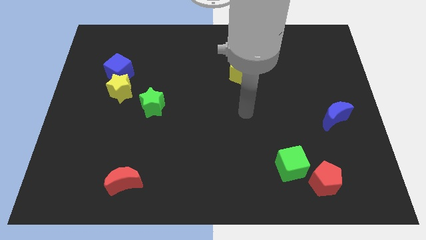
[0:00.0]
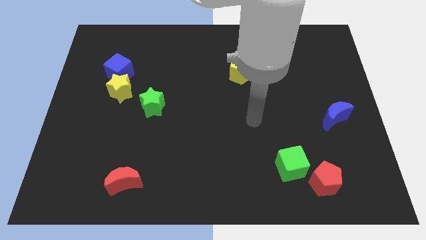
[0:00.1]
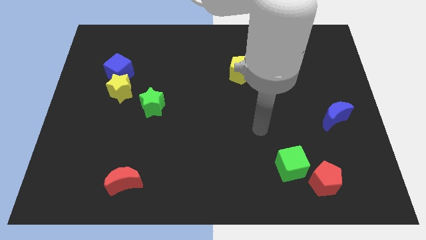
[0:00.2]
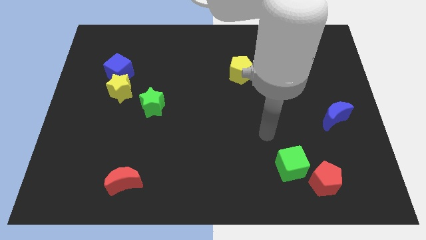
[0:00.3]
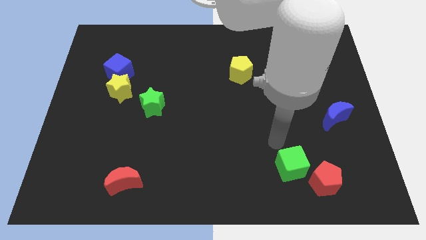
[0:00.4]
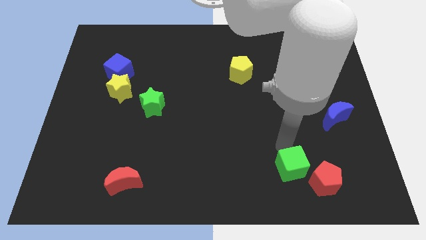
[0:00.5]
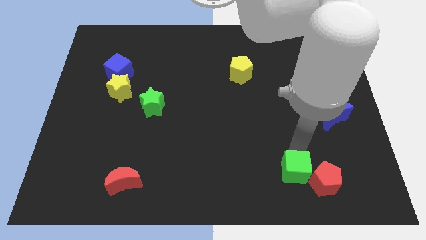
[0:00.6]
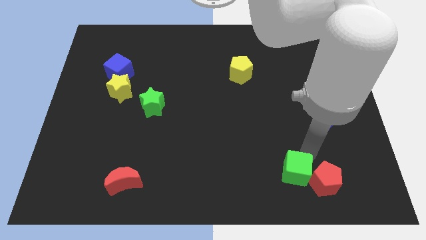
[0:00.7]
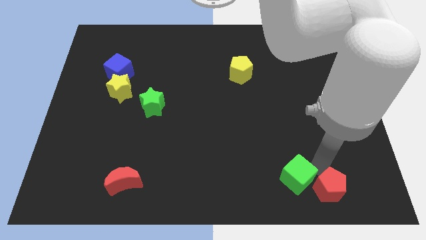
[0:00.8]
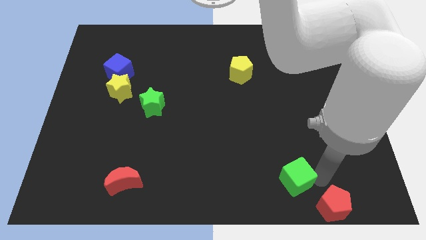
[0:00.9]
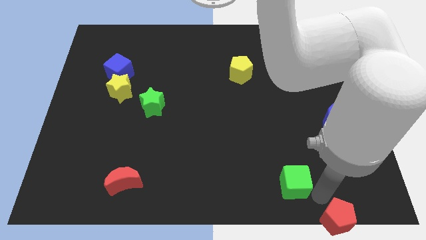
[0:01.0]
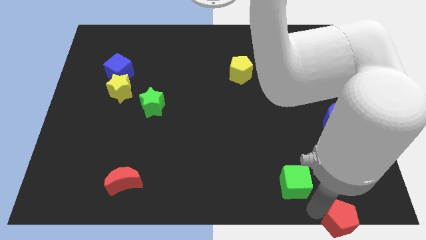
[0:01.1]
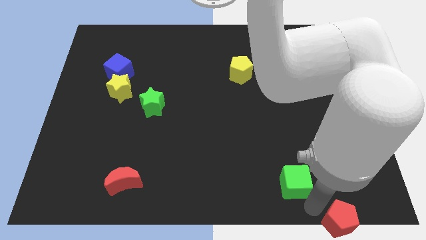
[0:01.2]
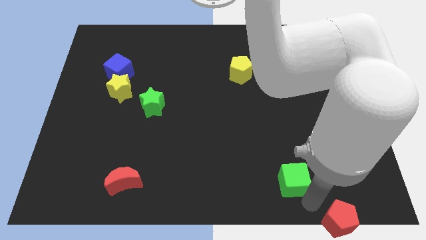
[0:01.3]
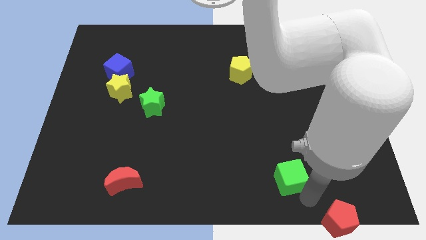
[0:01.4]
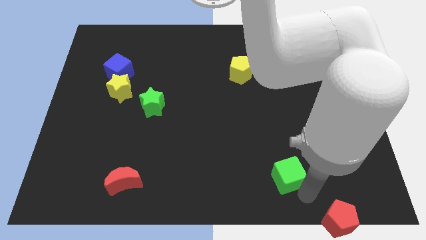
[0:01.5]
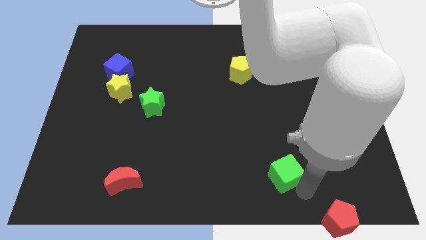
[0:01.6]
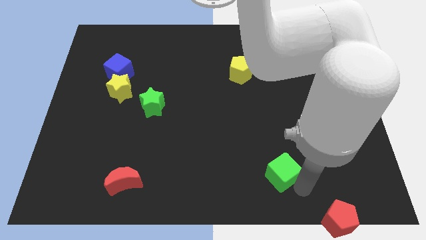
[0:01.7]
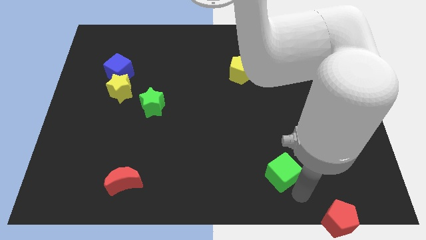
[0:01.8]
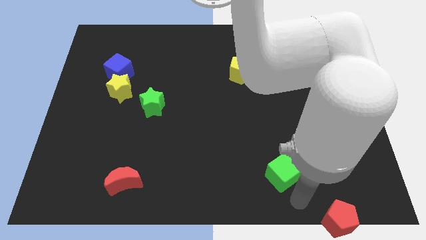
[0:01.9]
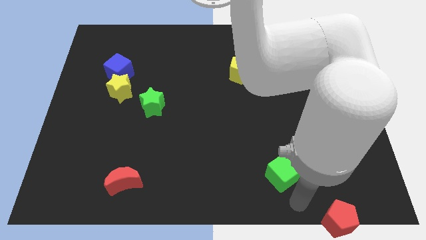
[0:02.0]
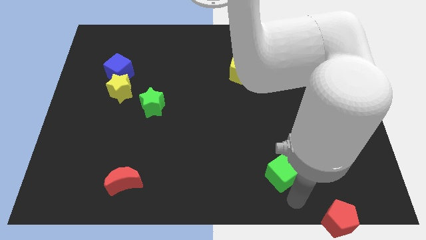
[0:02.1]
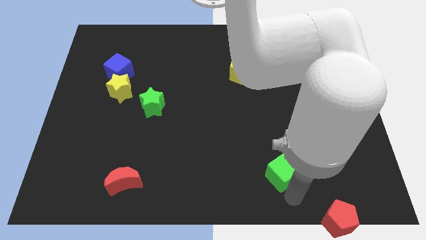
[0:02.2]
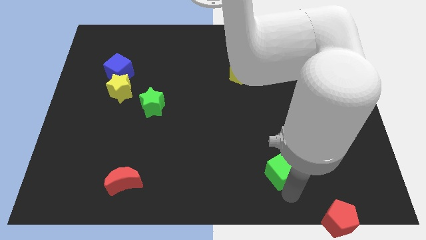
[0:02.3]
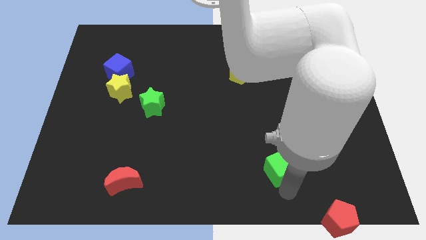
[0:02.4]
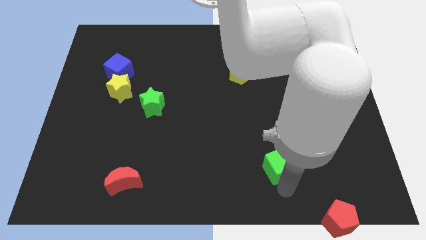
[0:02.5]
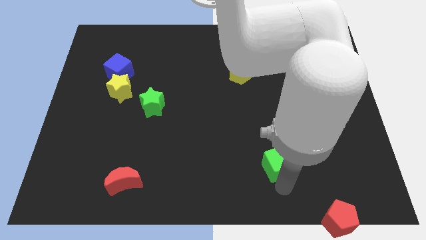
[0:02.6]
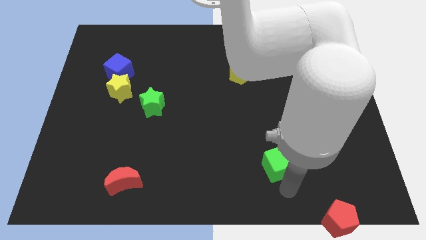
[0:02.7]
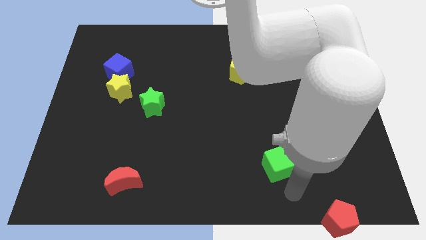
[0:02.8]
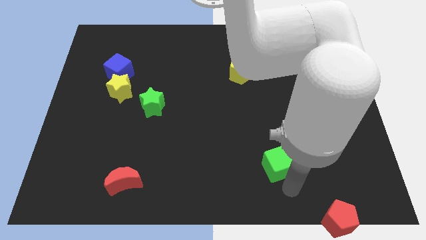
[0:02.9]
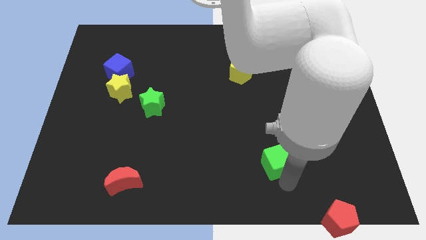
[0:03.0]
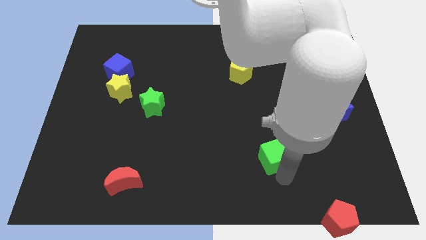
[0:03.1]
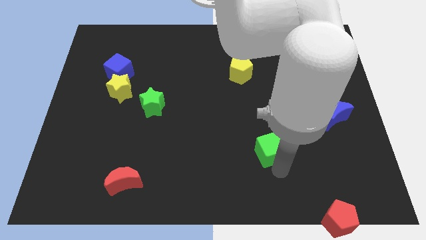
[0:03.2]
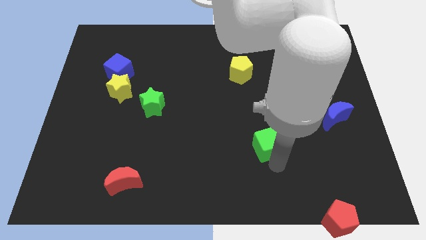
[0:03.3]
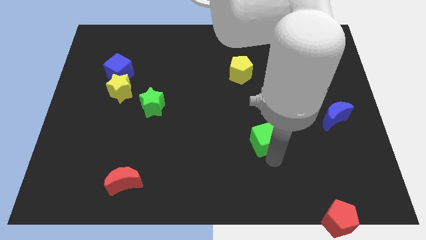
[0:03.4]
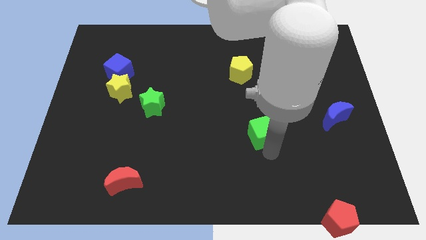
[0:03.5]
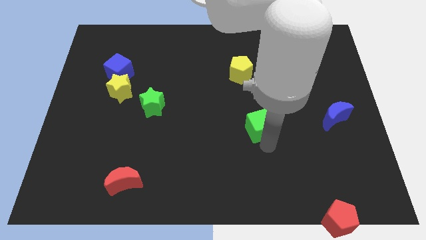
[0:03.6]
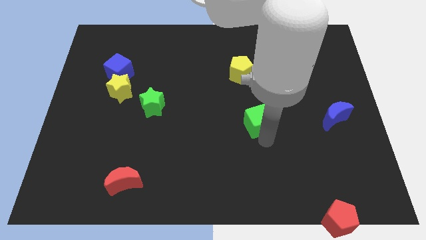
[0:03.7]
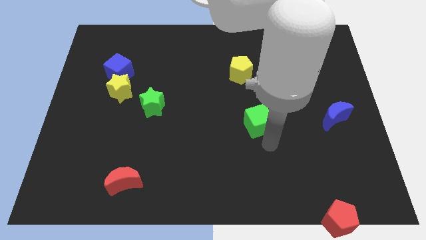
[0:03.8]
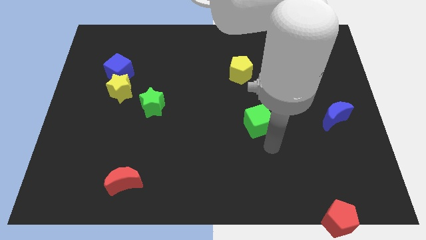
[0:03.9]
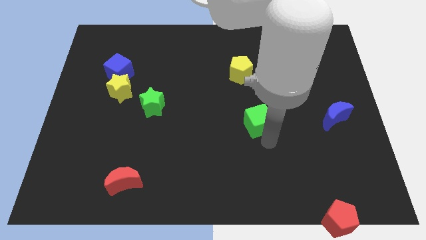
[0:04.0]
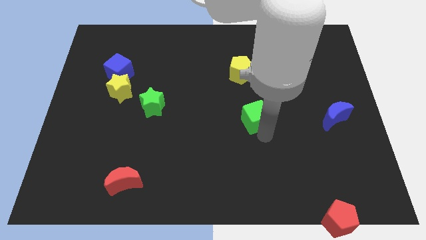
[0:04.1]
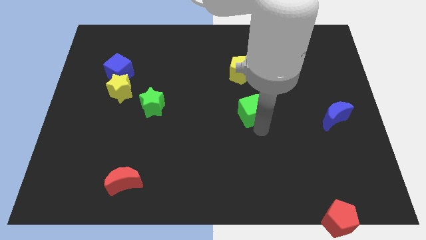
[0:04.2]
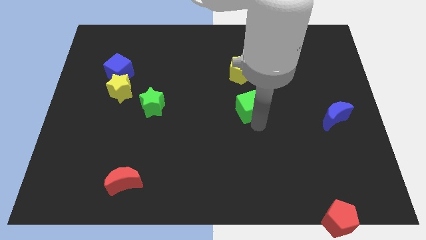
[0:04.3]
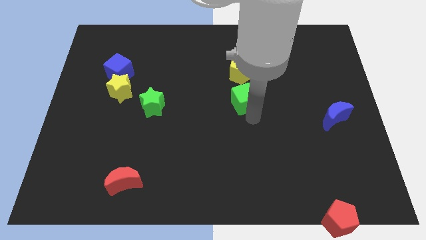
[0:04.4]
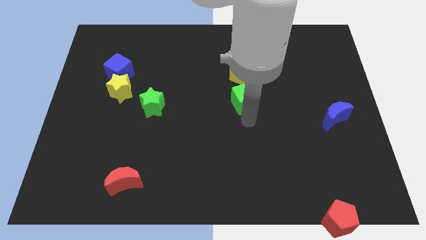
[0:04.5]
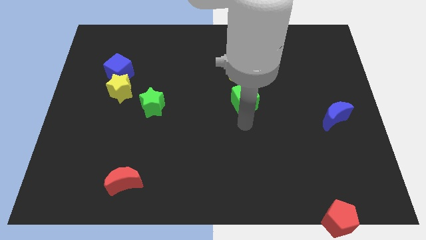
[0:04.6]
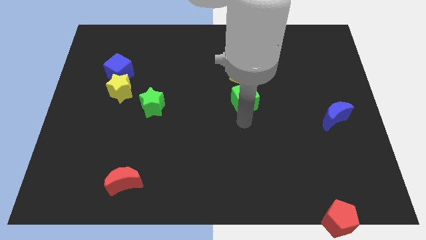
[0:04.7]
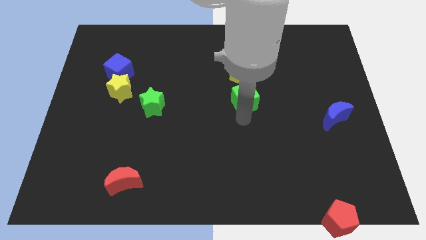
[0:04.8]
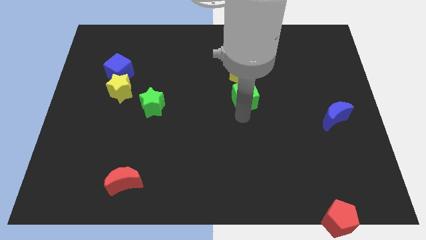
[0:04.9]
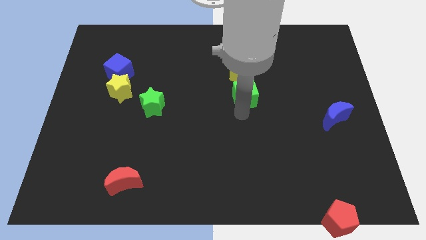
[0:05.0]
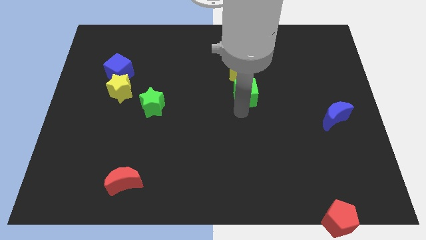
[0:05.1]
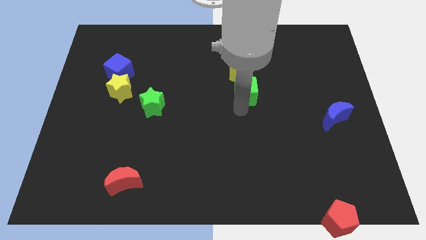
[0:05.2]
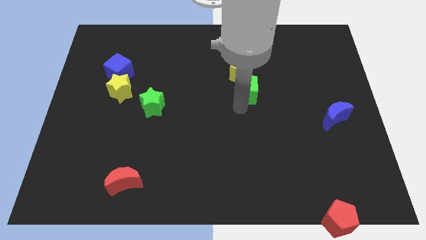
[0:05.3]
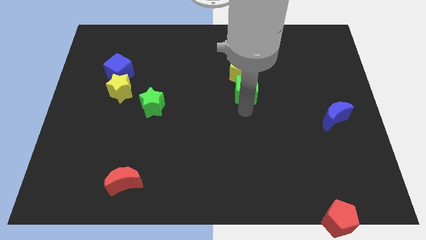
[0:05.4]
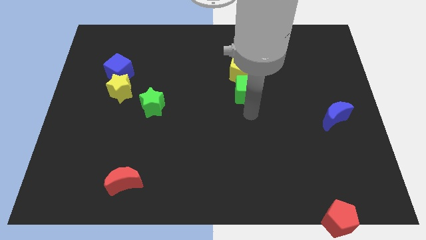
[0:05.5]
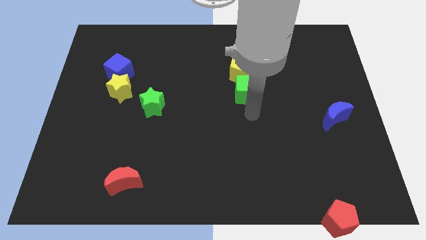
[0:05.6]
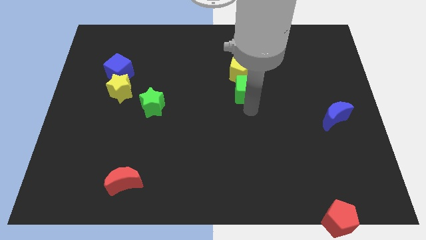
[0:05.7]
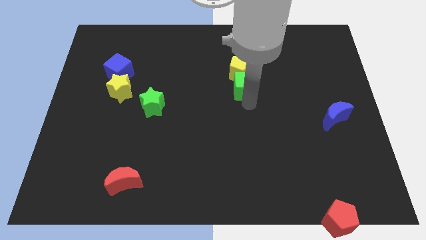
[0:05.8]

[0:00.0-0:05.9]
slide the green cube close to the yellow pentagon

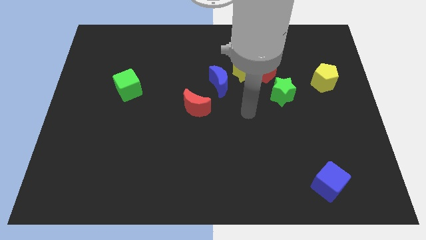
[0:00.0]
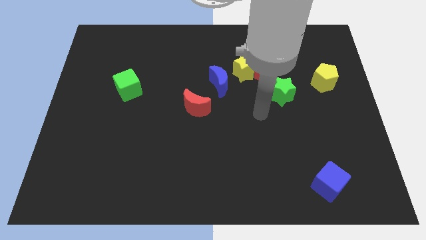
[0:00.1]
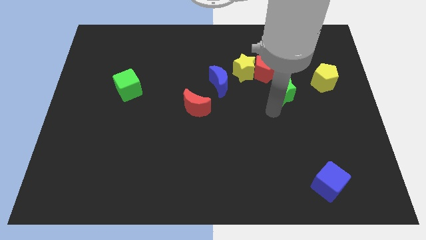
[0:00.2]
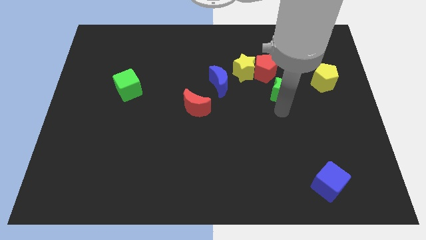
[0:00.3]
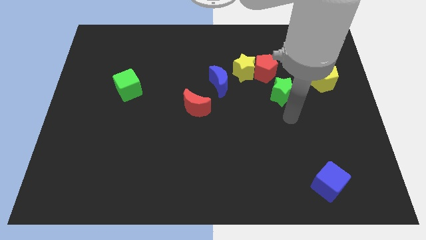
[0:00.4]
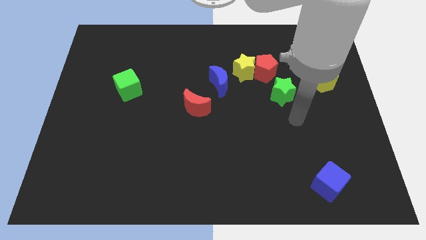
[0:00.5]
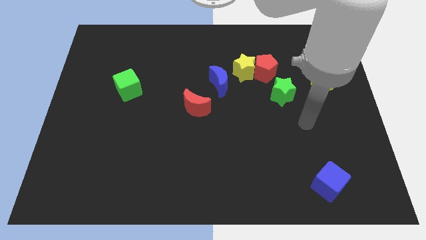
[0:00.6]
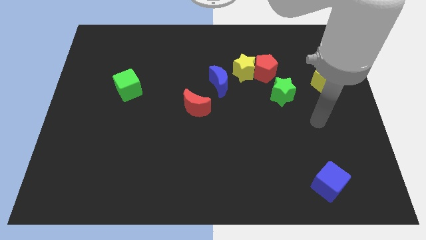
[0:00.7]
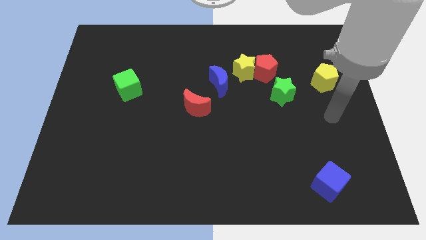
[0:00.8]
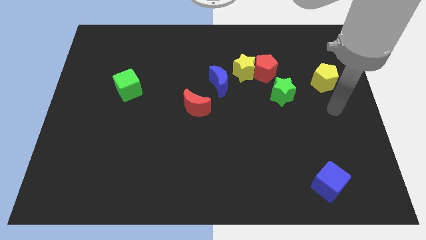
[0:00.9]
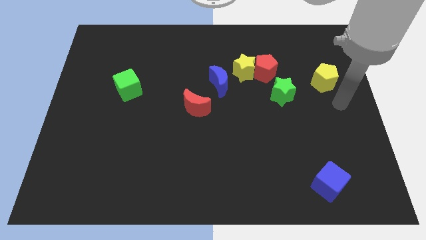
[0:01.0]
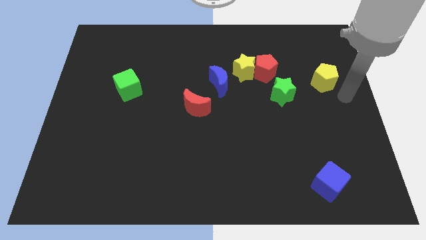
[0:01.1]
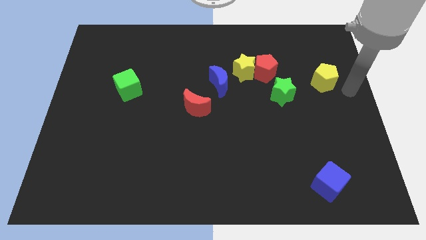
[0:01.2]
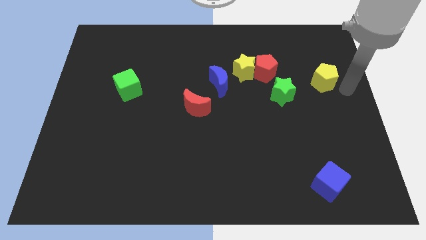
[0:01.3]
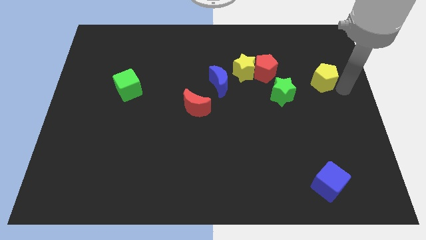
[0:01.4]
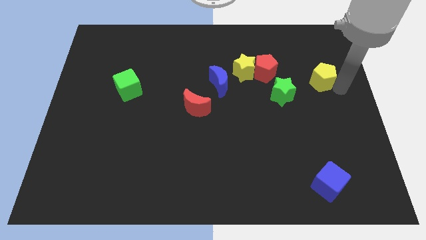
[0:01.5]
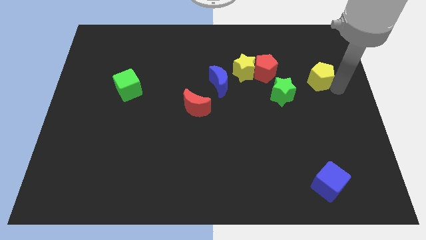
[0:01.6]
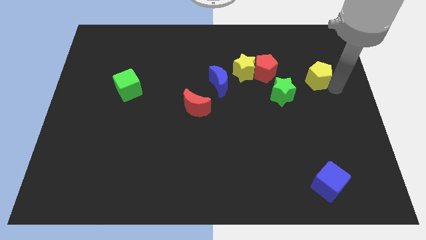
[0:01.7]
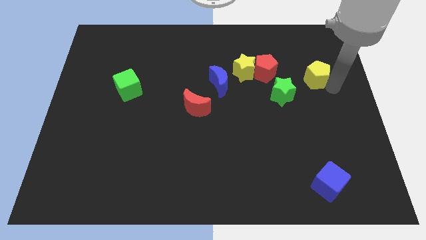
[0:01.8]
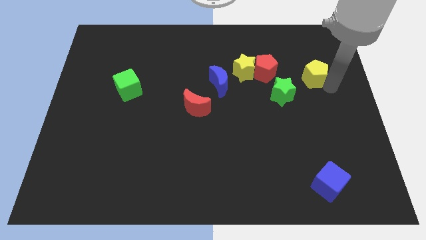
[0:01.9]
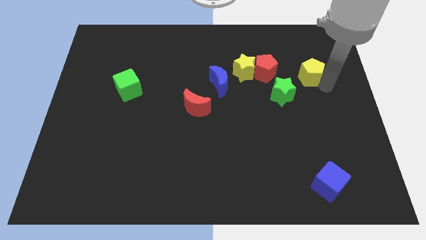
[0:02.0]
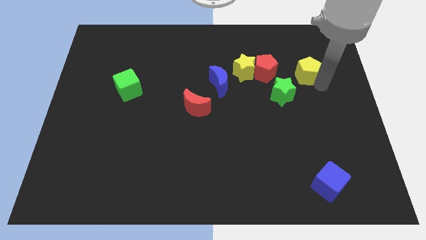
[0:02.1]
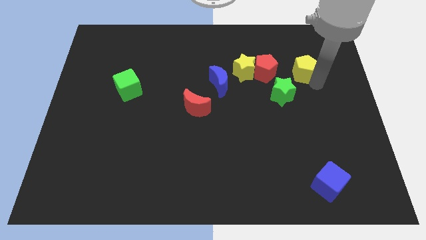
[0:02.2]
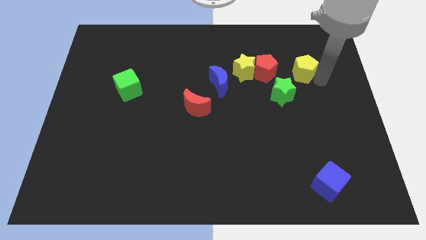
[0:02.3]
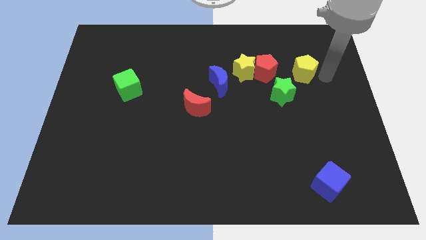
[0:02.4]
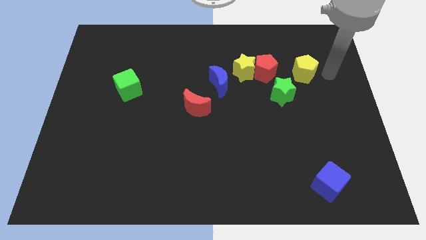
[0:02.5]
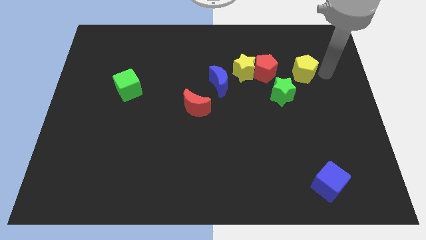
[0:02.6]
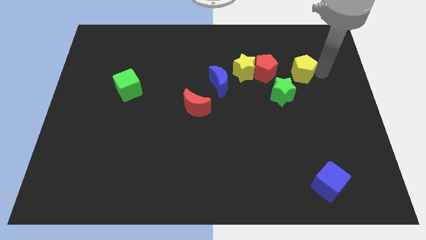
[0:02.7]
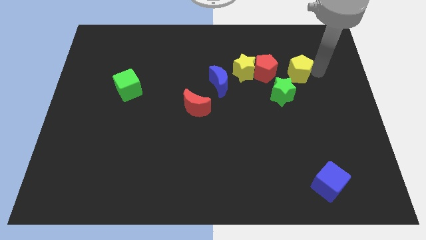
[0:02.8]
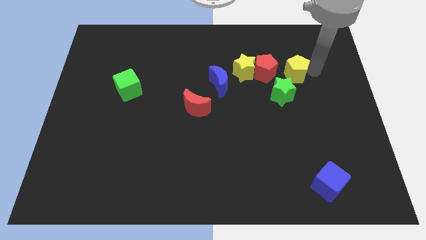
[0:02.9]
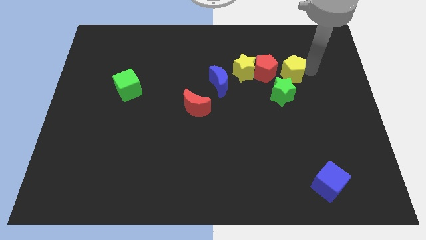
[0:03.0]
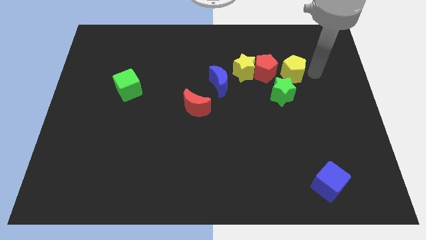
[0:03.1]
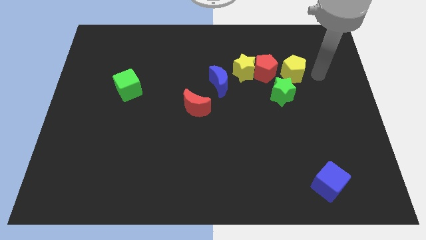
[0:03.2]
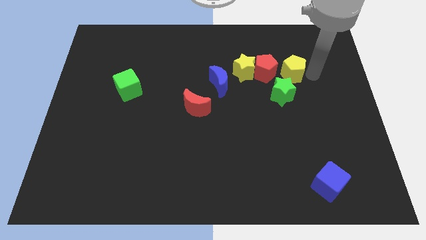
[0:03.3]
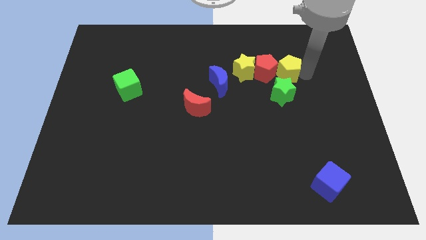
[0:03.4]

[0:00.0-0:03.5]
push the yellow pentagon towards the red pentagon
